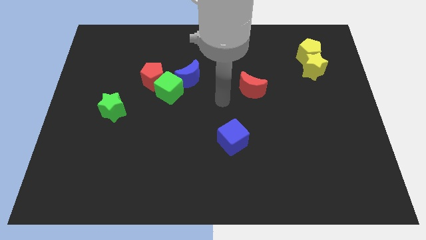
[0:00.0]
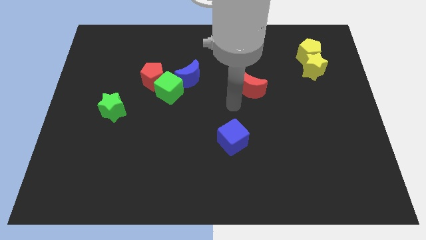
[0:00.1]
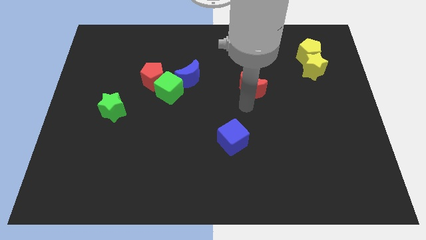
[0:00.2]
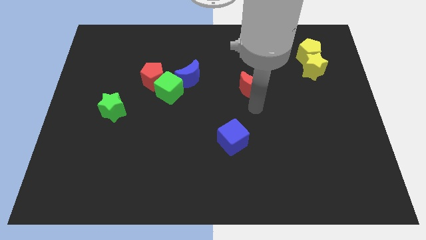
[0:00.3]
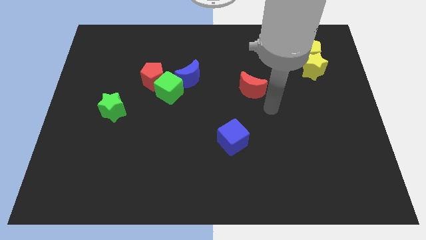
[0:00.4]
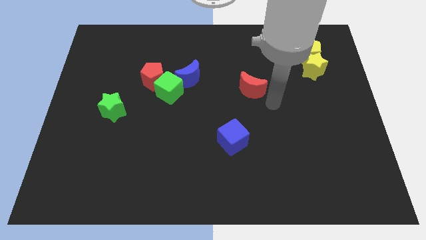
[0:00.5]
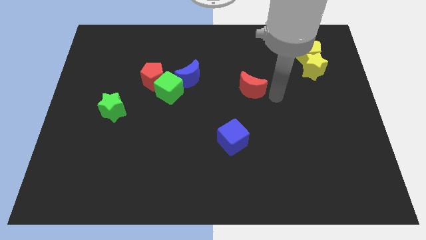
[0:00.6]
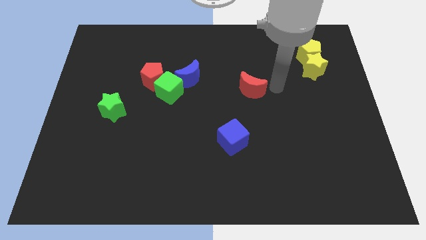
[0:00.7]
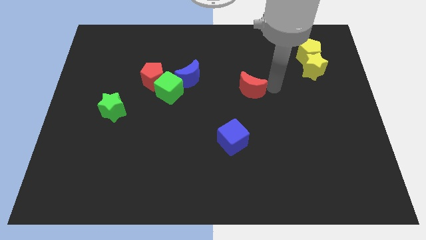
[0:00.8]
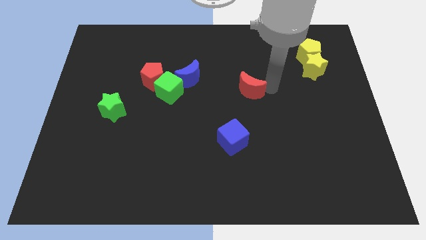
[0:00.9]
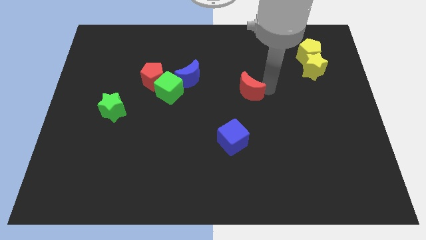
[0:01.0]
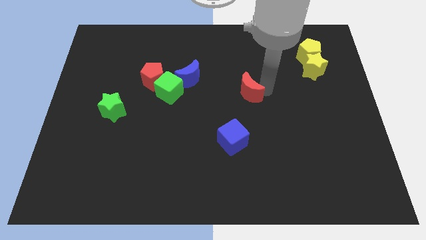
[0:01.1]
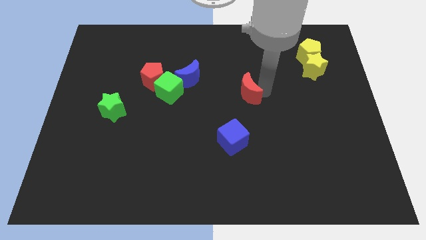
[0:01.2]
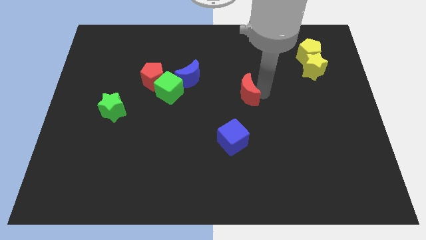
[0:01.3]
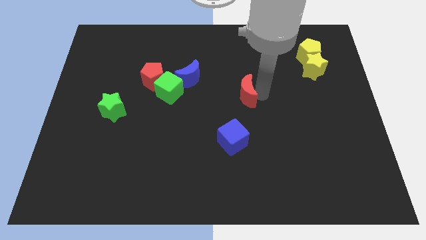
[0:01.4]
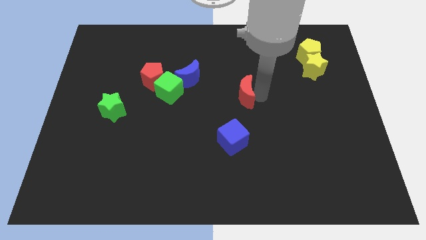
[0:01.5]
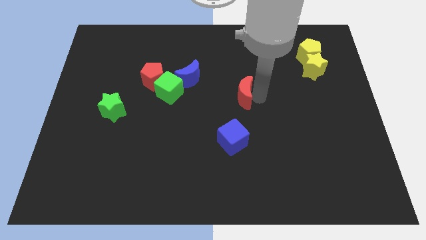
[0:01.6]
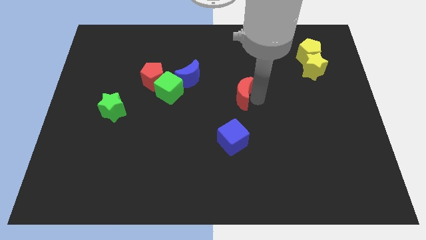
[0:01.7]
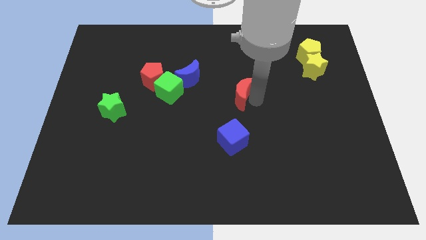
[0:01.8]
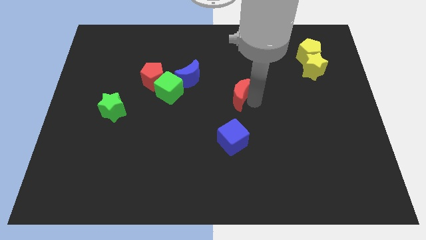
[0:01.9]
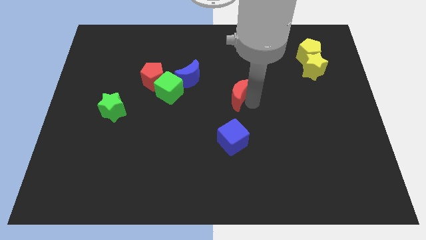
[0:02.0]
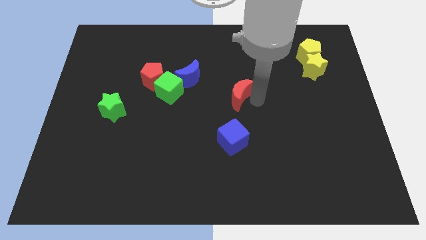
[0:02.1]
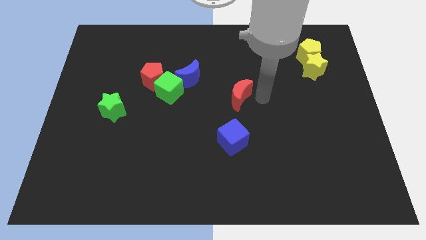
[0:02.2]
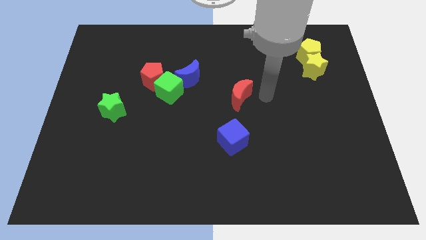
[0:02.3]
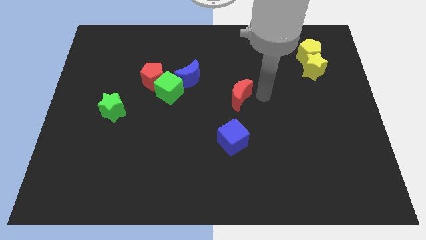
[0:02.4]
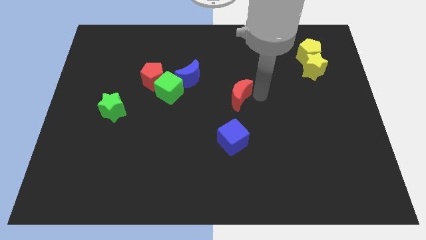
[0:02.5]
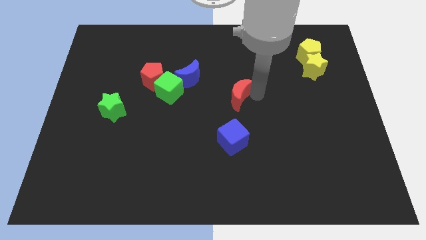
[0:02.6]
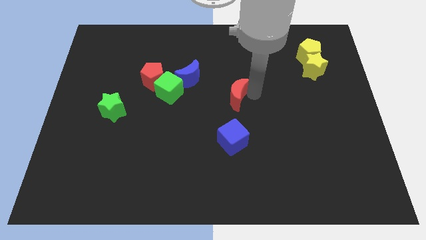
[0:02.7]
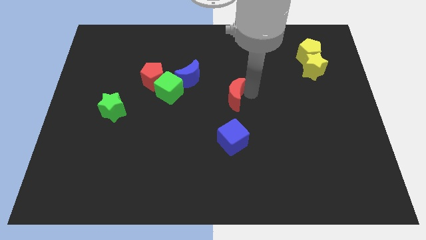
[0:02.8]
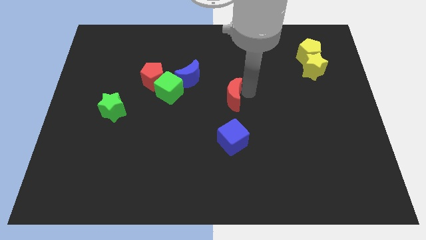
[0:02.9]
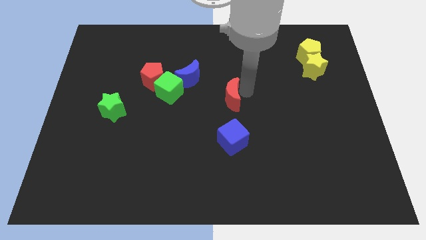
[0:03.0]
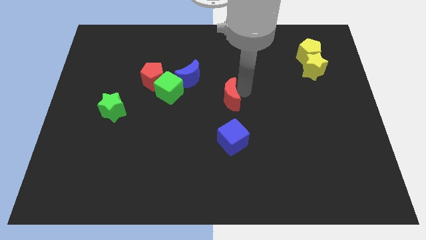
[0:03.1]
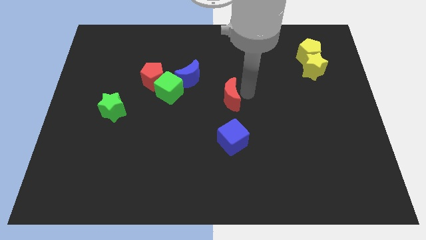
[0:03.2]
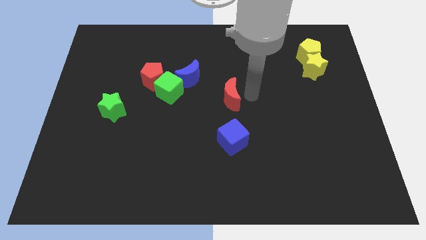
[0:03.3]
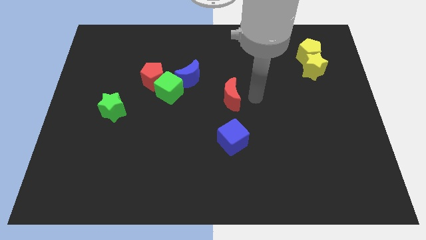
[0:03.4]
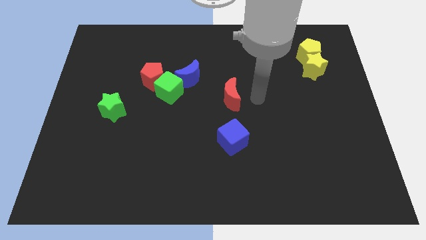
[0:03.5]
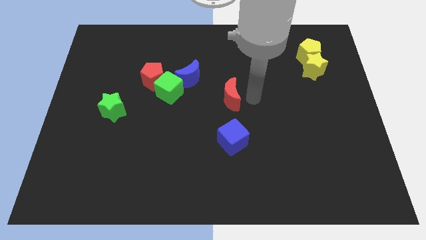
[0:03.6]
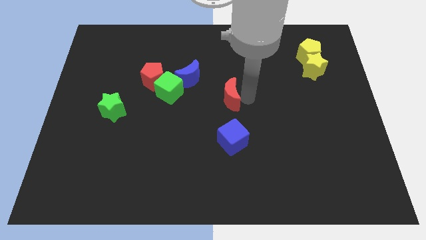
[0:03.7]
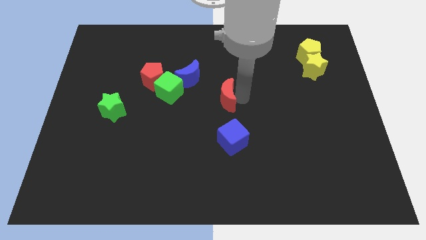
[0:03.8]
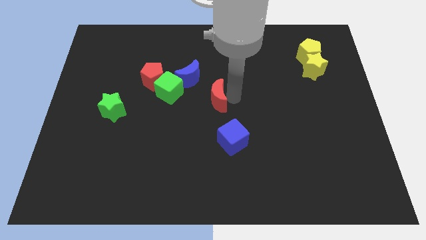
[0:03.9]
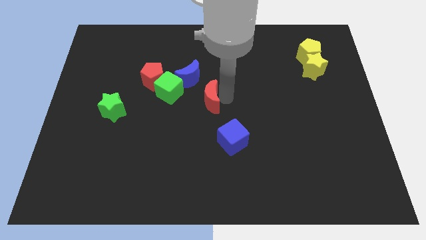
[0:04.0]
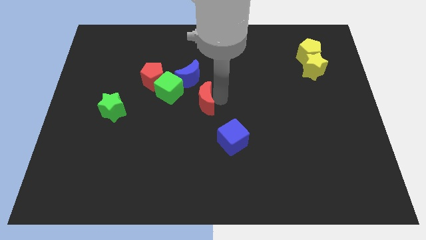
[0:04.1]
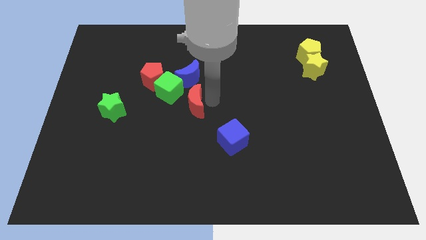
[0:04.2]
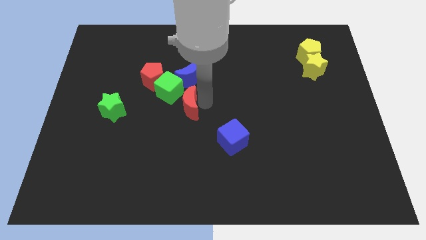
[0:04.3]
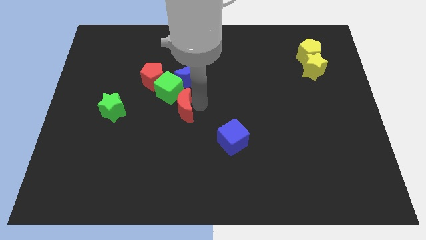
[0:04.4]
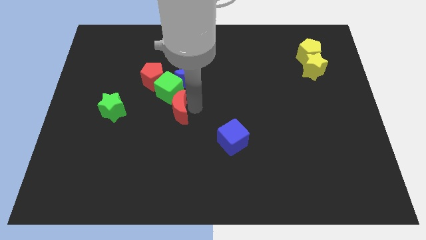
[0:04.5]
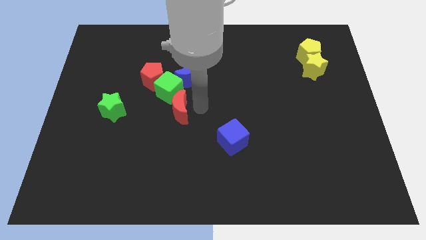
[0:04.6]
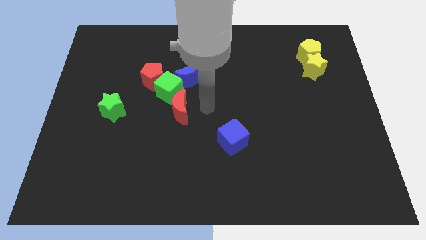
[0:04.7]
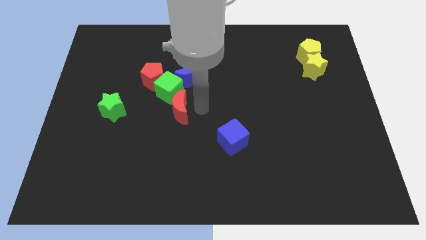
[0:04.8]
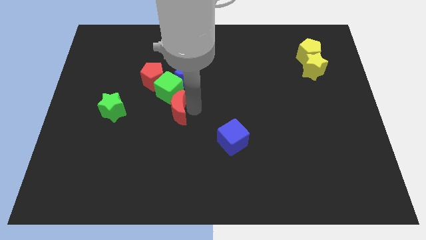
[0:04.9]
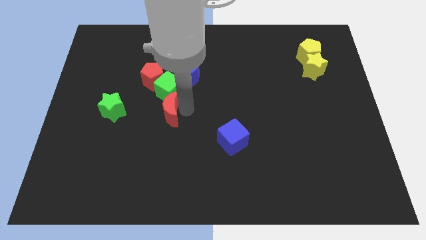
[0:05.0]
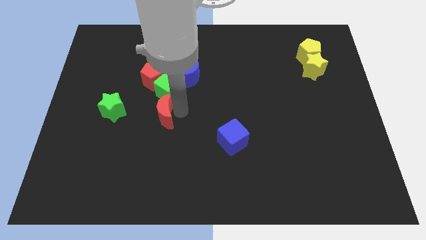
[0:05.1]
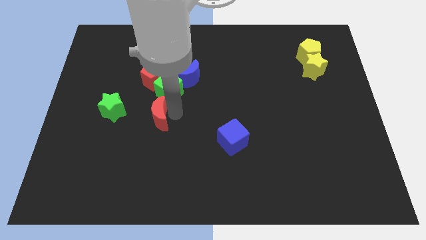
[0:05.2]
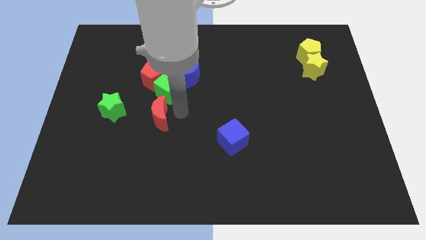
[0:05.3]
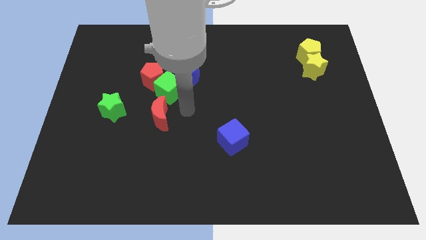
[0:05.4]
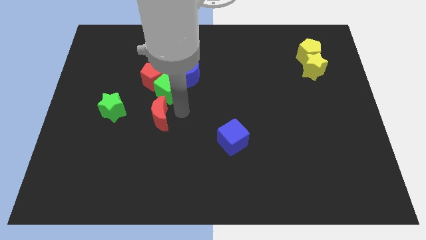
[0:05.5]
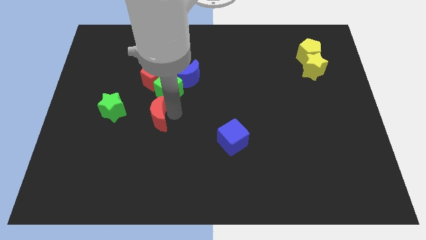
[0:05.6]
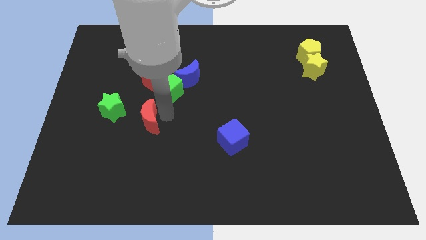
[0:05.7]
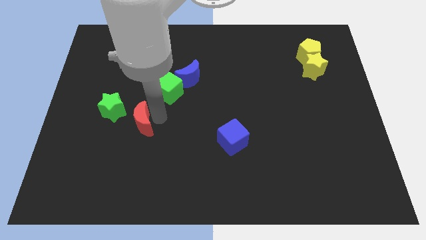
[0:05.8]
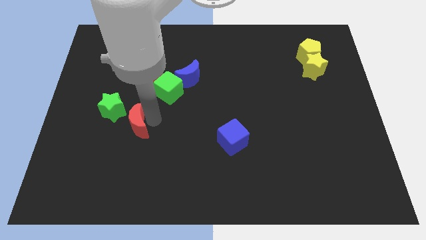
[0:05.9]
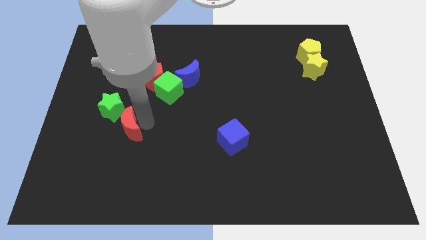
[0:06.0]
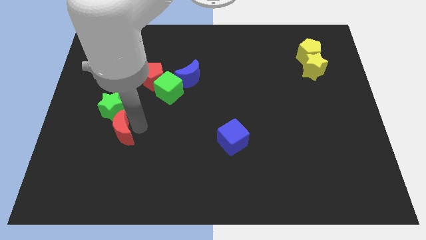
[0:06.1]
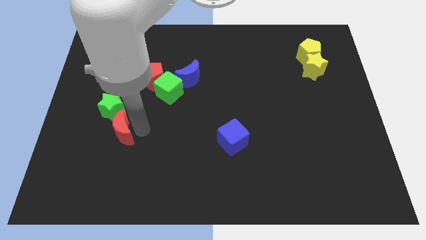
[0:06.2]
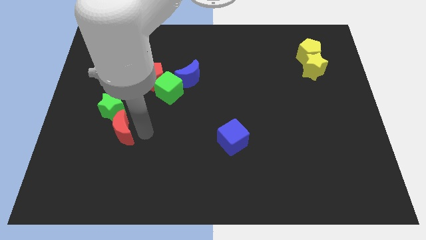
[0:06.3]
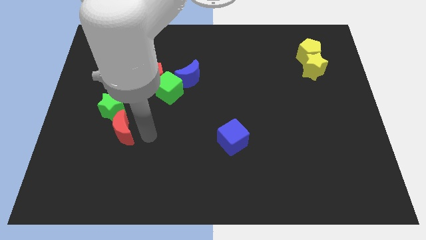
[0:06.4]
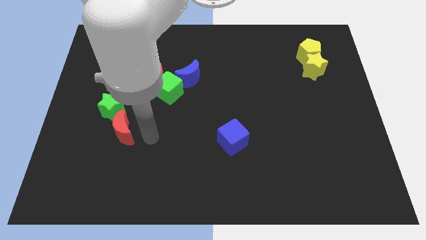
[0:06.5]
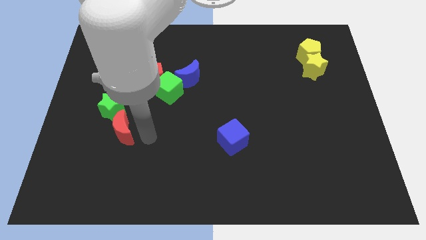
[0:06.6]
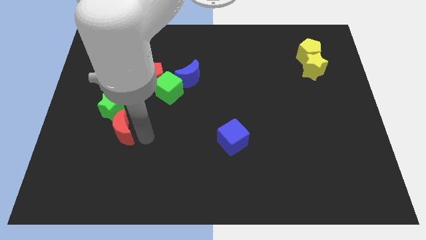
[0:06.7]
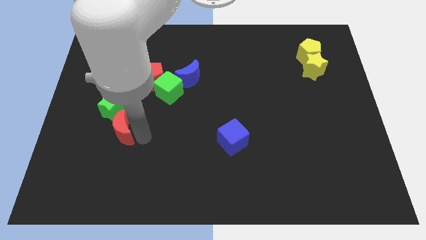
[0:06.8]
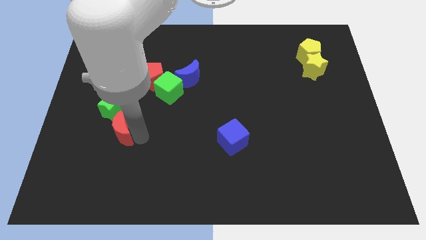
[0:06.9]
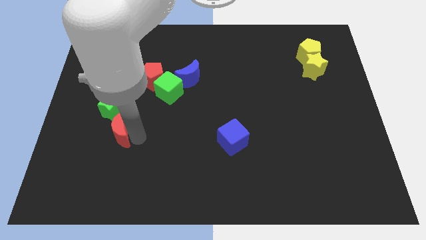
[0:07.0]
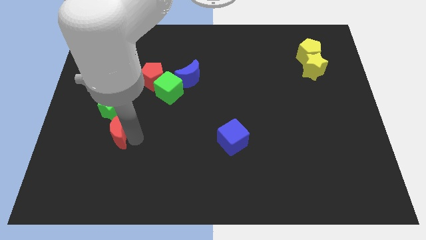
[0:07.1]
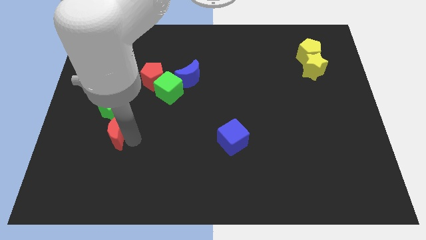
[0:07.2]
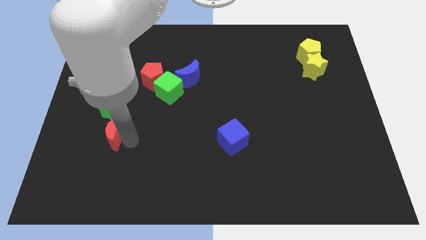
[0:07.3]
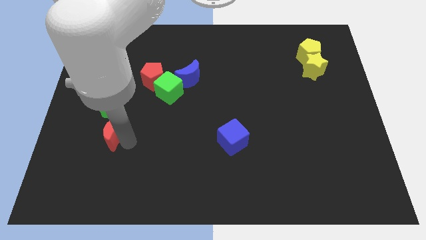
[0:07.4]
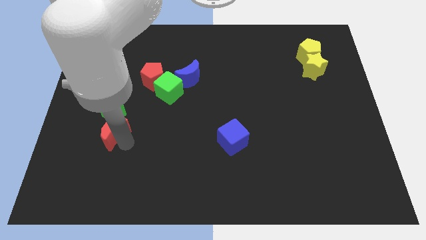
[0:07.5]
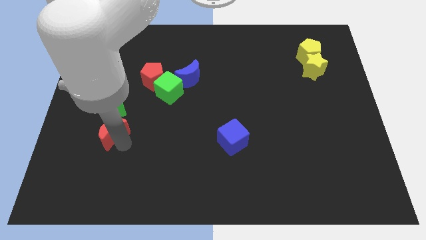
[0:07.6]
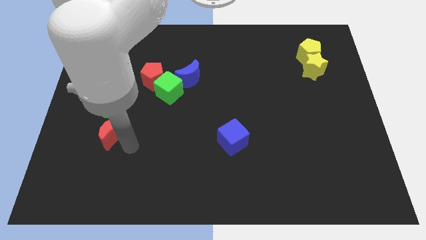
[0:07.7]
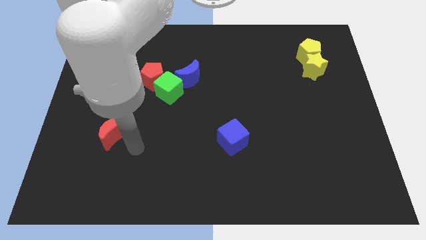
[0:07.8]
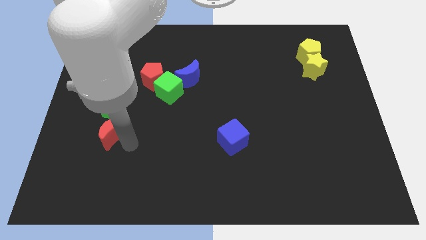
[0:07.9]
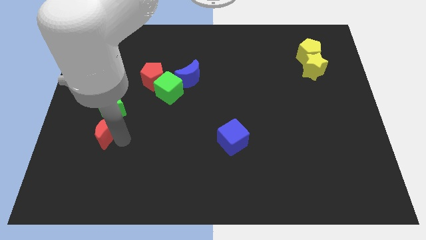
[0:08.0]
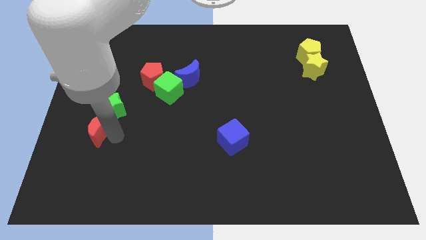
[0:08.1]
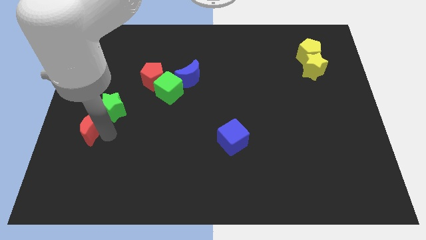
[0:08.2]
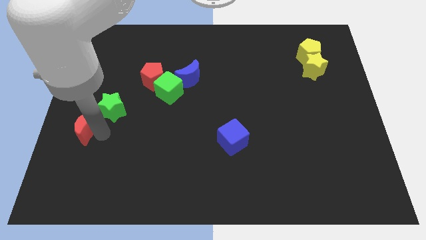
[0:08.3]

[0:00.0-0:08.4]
put the red moon to the center left
